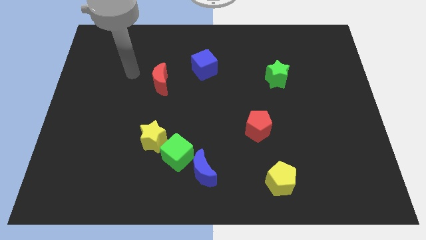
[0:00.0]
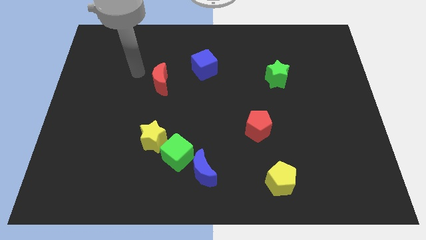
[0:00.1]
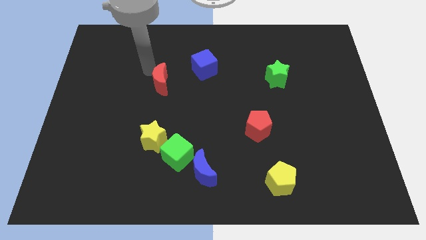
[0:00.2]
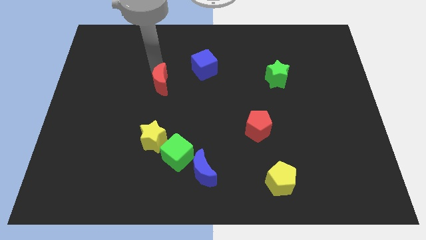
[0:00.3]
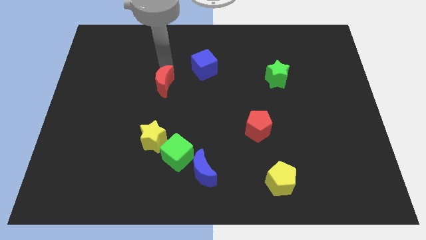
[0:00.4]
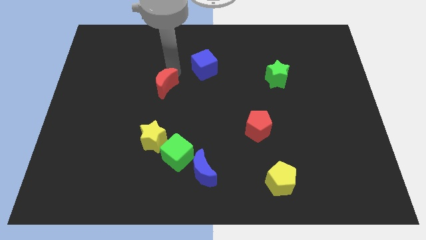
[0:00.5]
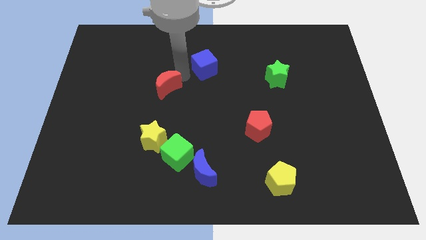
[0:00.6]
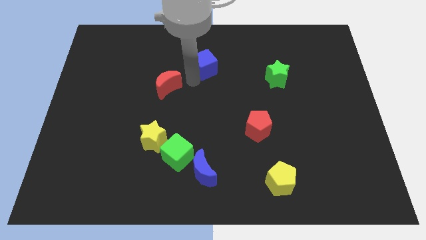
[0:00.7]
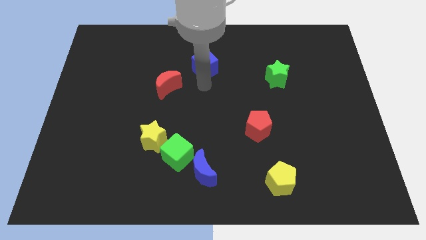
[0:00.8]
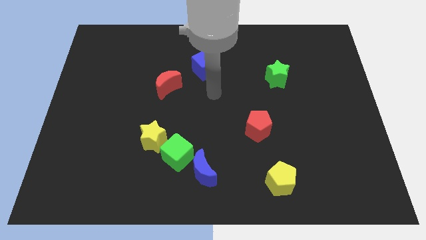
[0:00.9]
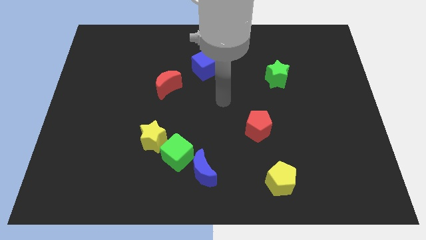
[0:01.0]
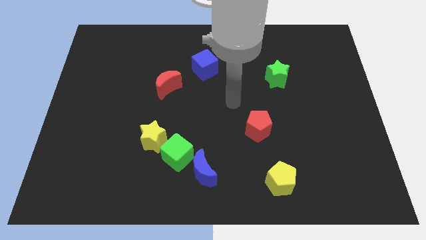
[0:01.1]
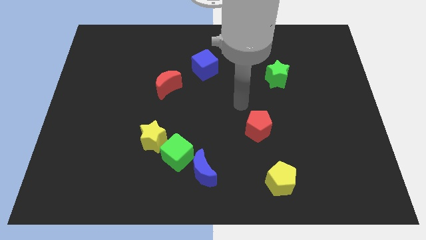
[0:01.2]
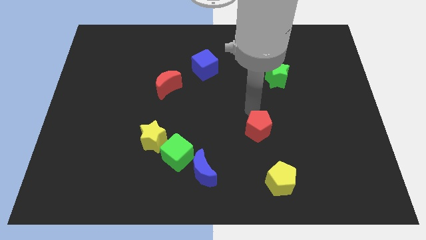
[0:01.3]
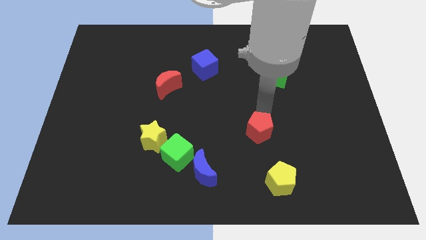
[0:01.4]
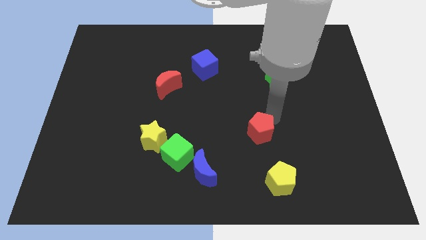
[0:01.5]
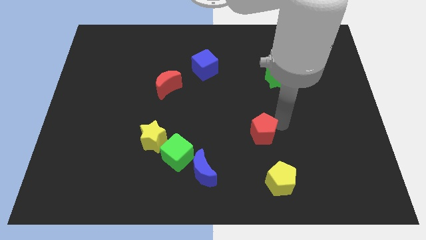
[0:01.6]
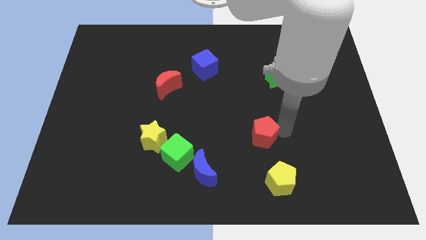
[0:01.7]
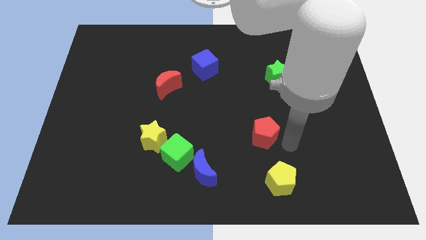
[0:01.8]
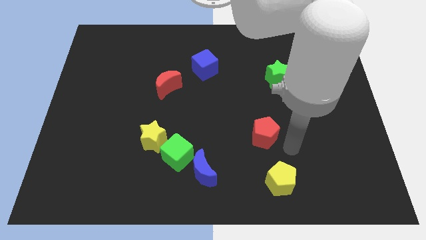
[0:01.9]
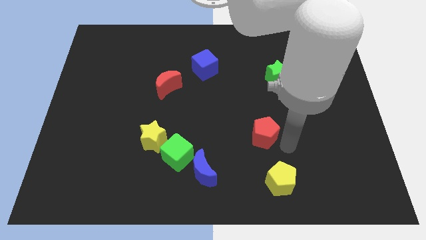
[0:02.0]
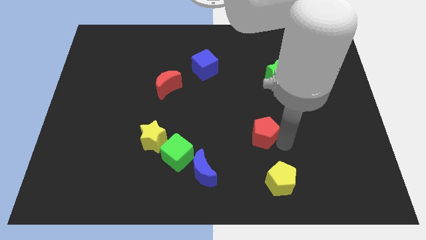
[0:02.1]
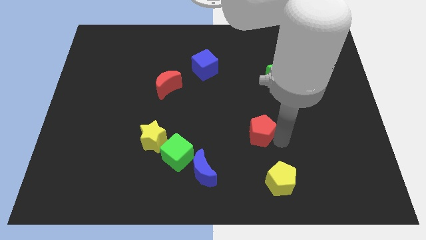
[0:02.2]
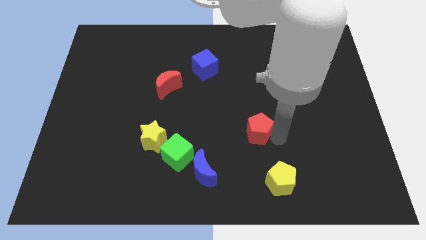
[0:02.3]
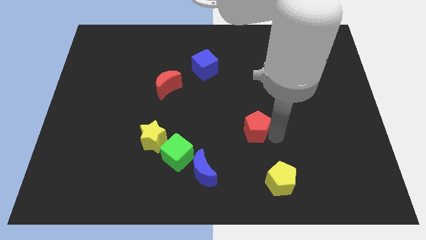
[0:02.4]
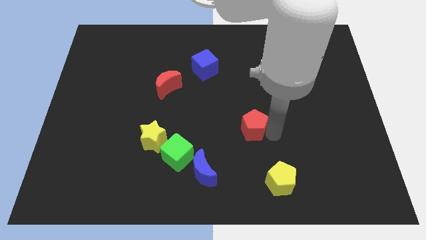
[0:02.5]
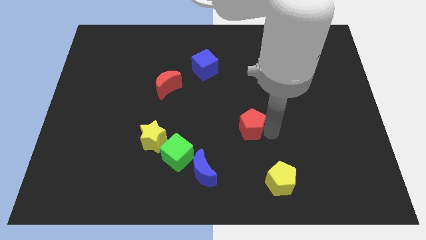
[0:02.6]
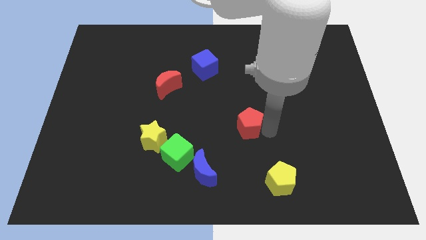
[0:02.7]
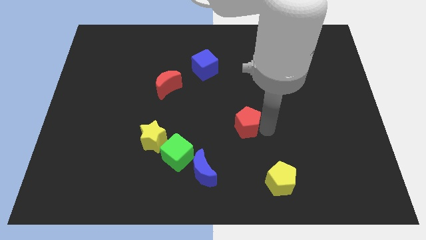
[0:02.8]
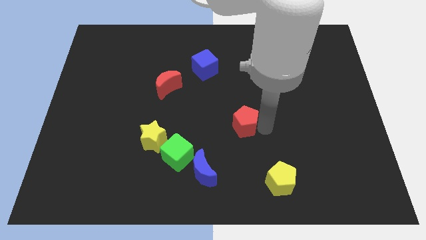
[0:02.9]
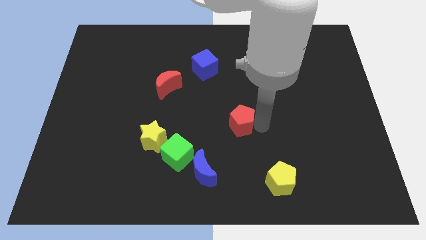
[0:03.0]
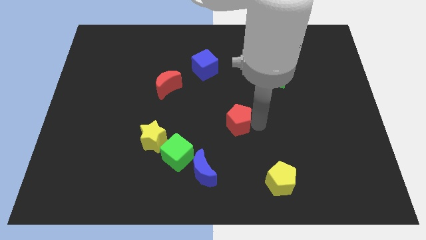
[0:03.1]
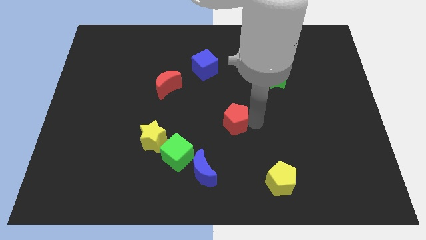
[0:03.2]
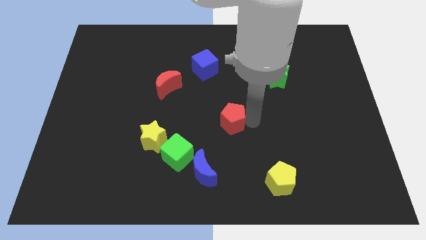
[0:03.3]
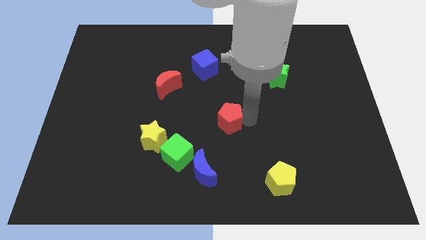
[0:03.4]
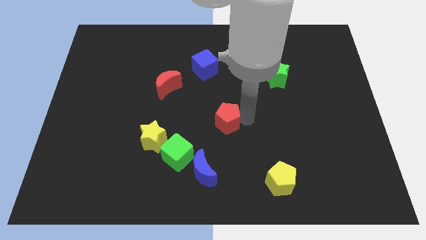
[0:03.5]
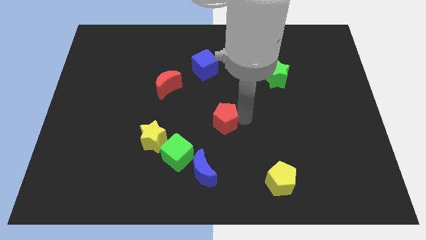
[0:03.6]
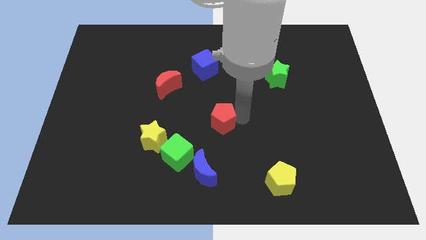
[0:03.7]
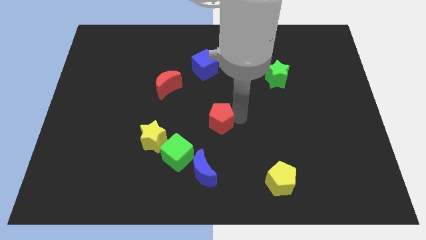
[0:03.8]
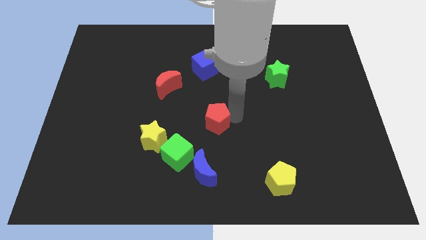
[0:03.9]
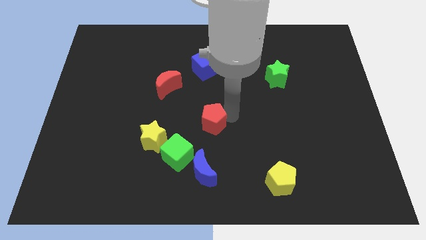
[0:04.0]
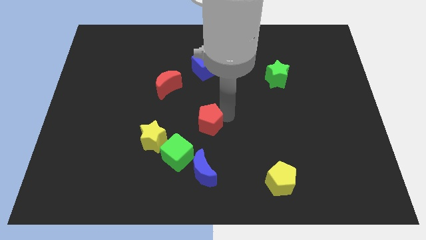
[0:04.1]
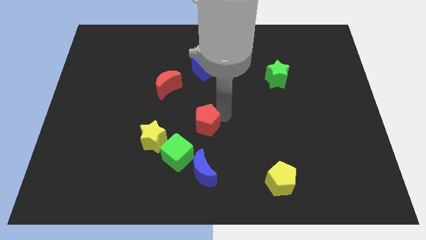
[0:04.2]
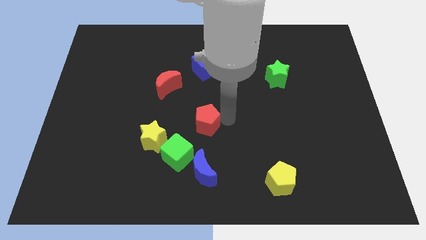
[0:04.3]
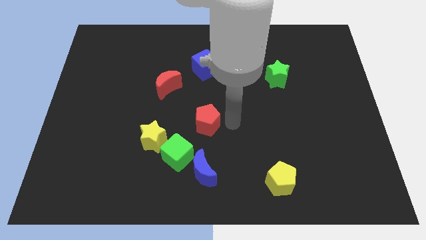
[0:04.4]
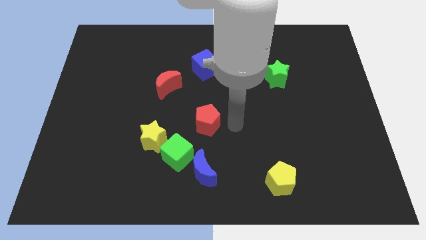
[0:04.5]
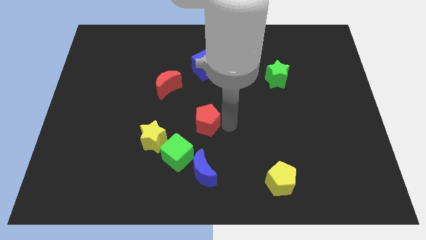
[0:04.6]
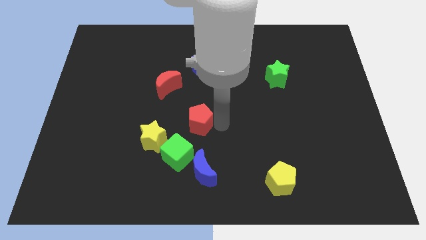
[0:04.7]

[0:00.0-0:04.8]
slide the red pentagon to the top right side of the yellow star

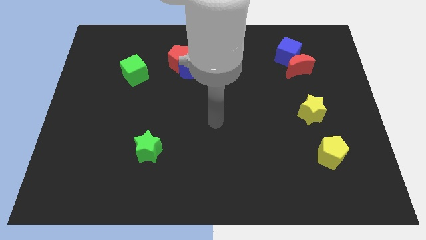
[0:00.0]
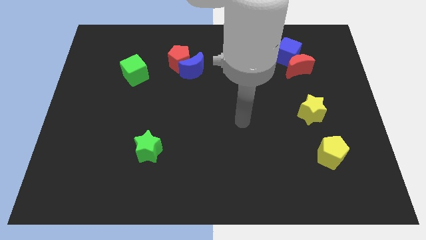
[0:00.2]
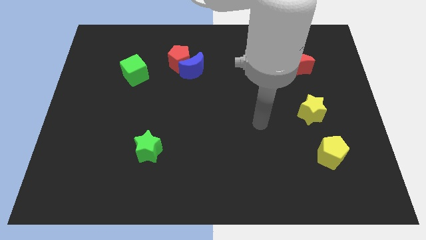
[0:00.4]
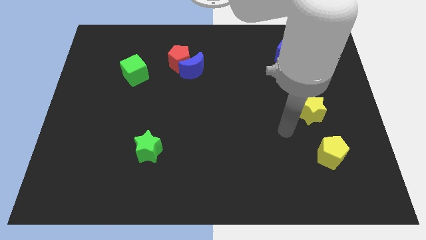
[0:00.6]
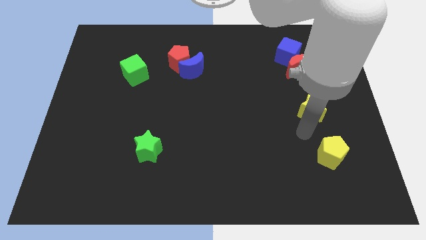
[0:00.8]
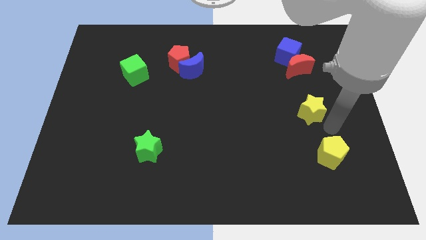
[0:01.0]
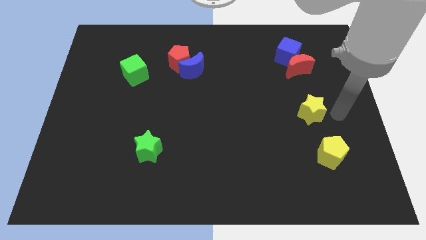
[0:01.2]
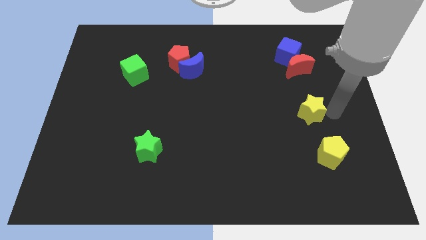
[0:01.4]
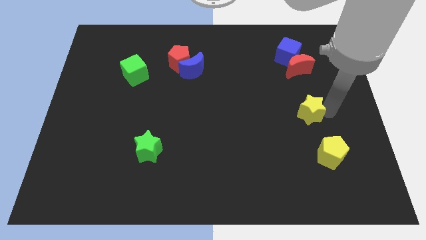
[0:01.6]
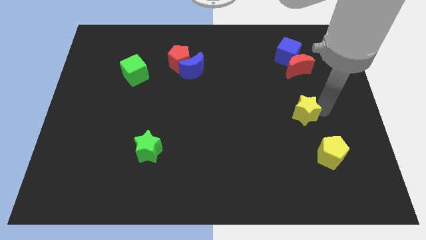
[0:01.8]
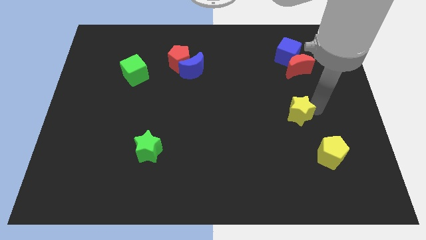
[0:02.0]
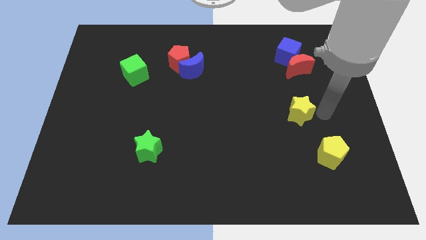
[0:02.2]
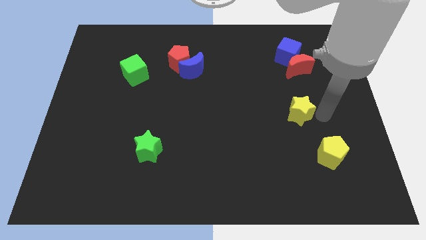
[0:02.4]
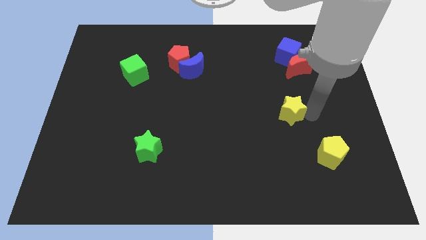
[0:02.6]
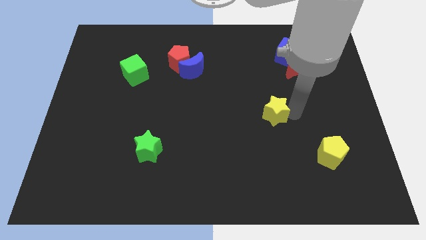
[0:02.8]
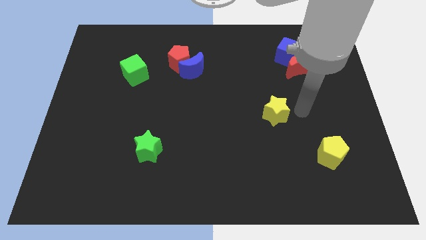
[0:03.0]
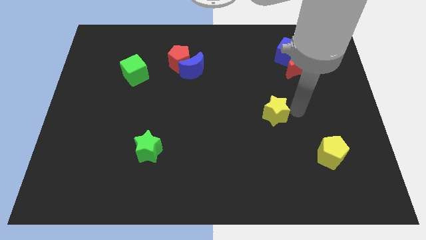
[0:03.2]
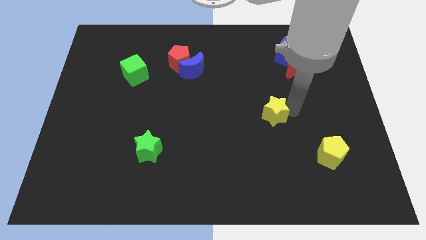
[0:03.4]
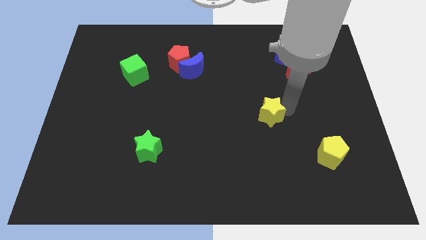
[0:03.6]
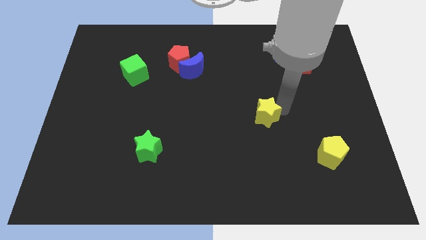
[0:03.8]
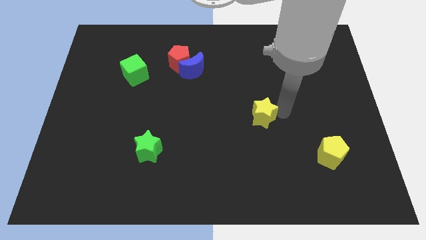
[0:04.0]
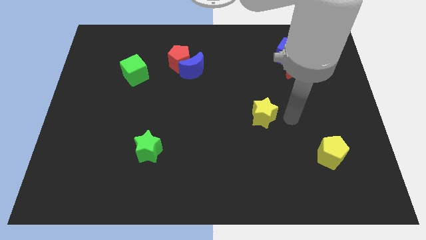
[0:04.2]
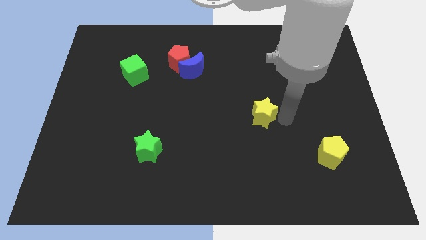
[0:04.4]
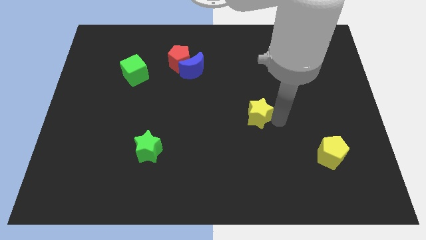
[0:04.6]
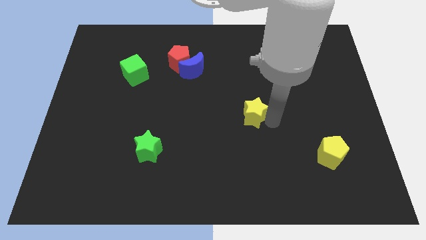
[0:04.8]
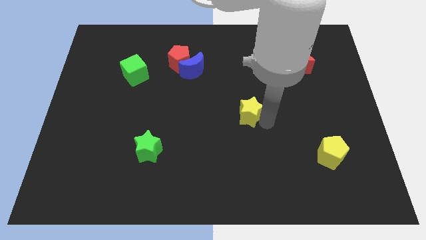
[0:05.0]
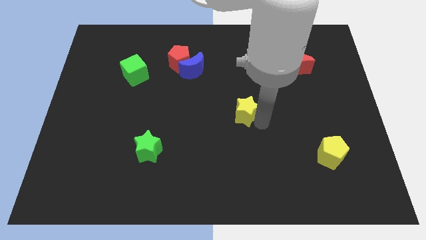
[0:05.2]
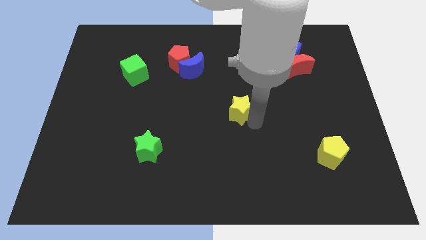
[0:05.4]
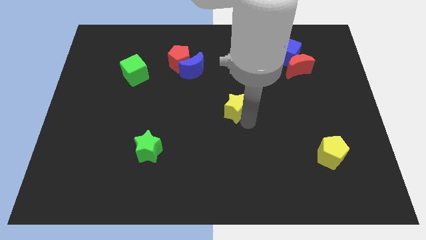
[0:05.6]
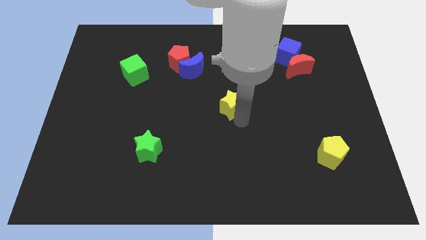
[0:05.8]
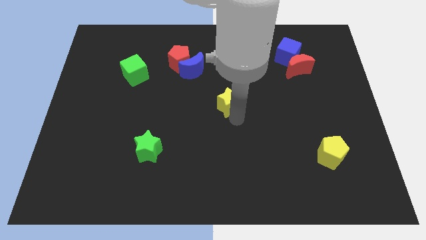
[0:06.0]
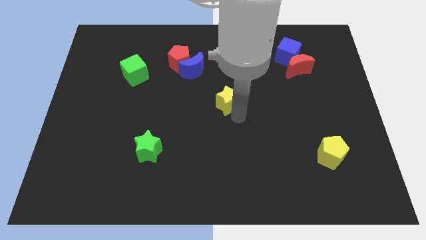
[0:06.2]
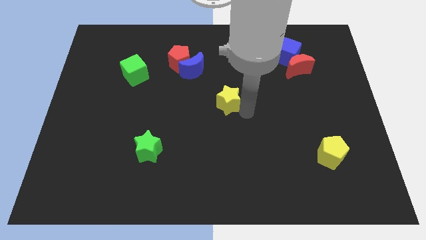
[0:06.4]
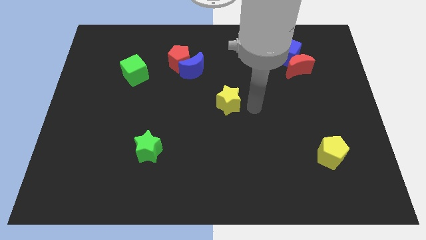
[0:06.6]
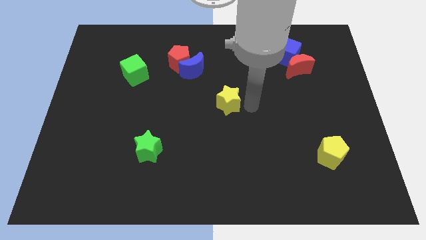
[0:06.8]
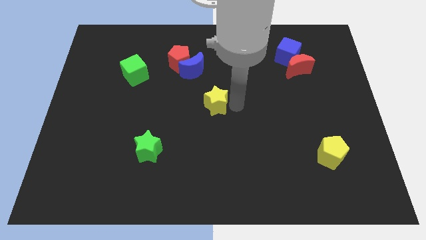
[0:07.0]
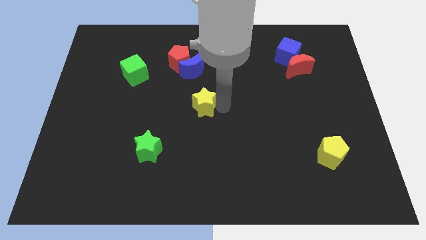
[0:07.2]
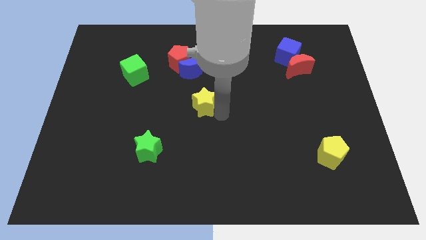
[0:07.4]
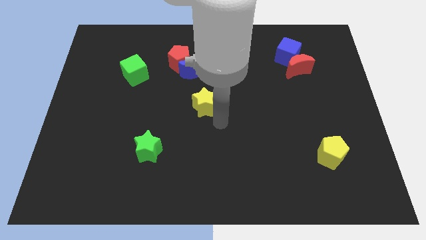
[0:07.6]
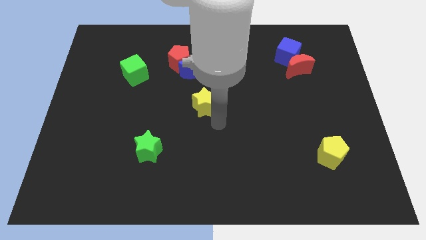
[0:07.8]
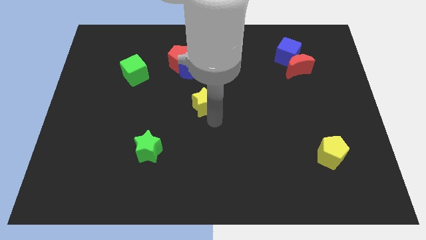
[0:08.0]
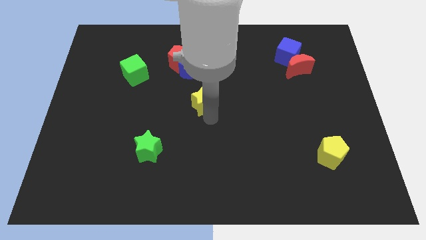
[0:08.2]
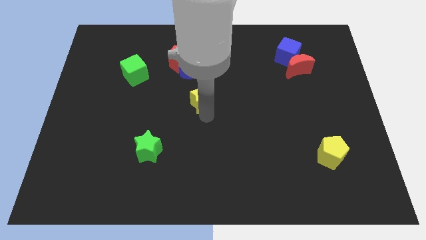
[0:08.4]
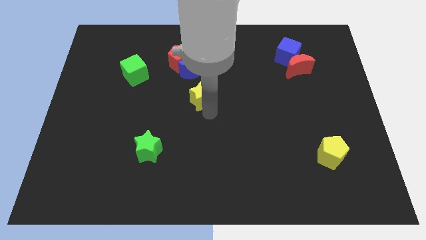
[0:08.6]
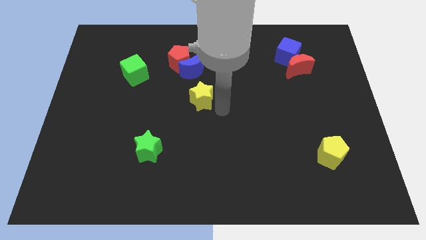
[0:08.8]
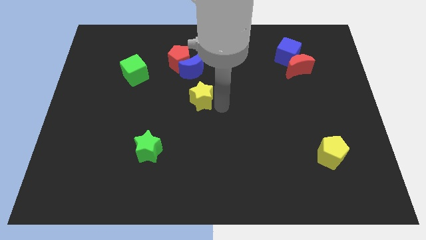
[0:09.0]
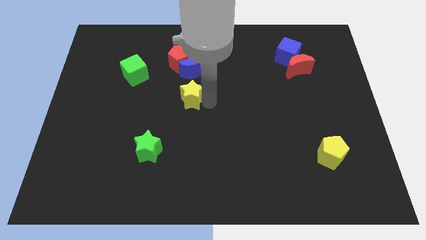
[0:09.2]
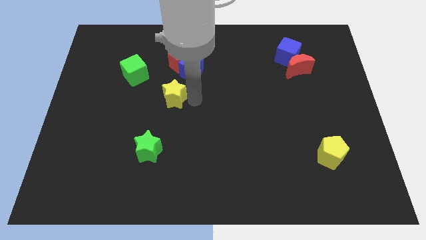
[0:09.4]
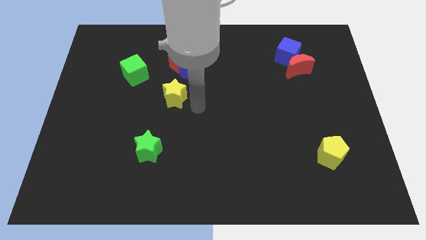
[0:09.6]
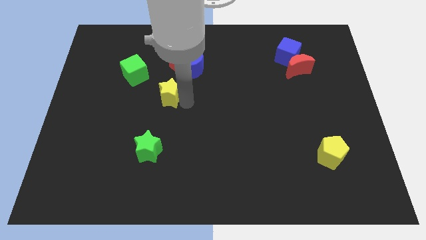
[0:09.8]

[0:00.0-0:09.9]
slide the yellow star to the bottom right side of the green cube
